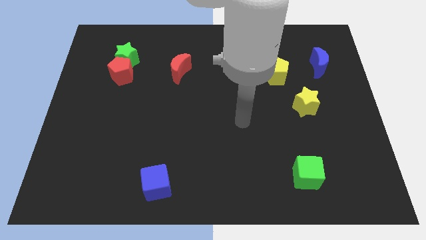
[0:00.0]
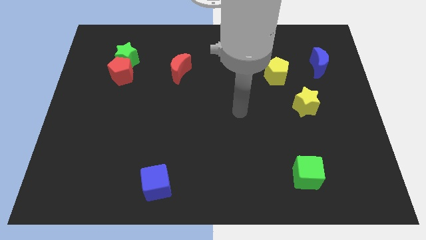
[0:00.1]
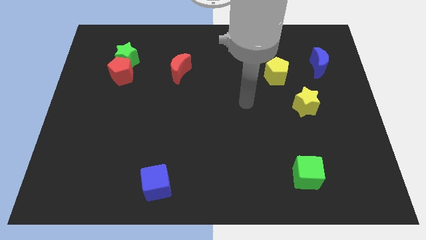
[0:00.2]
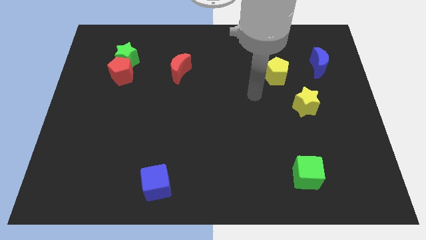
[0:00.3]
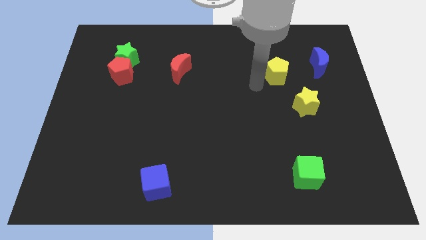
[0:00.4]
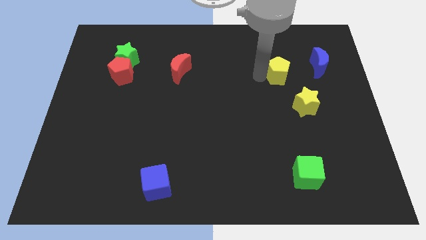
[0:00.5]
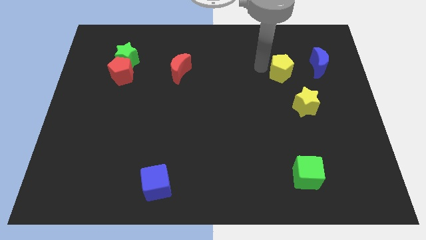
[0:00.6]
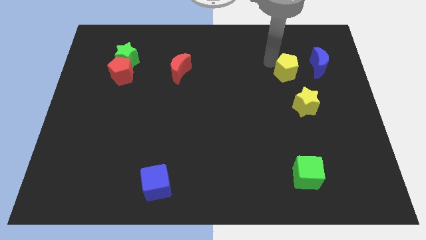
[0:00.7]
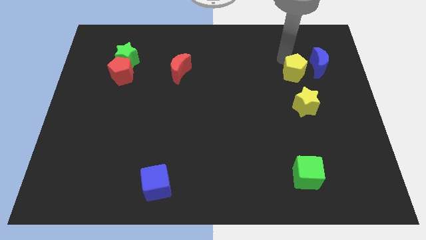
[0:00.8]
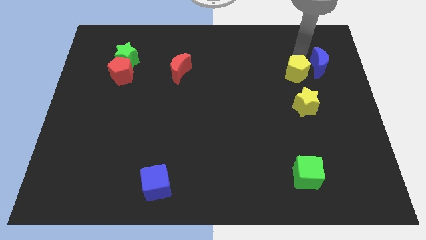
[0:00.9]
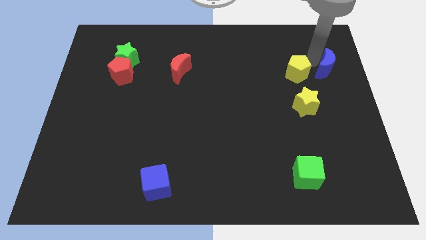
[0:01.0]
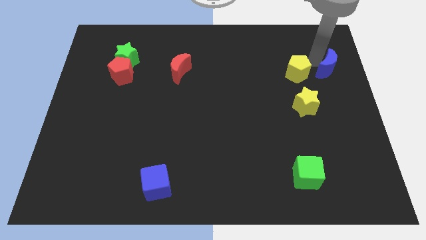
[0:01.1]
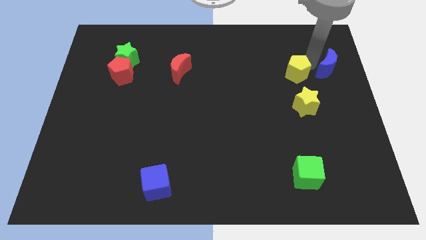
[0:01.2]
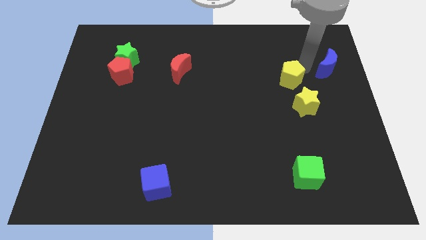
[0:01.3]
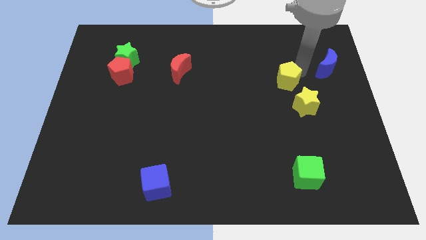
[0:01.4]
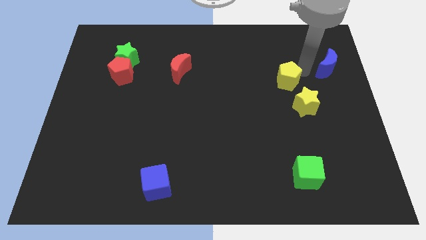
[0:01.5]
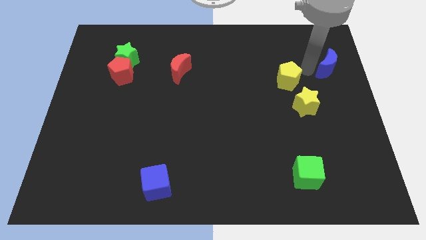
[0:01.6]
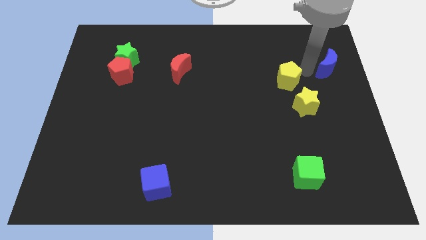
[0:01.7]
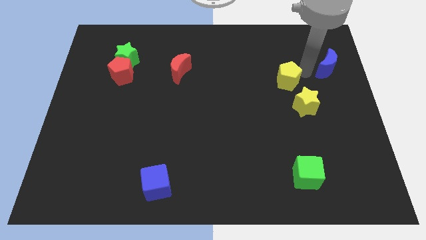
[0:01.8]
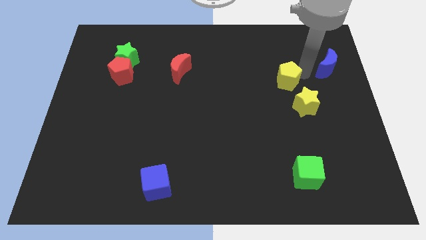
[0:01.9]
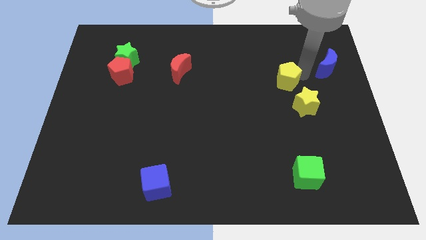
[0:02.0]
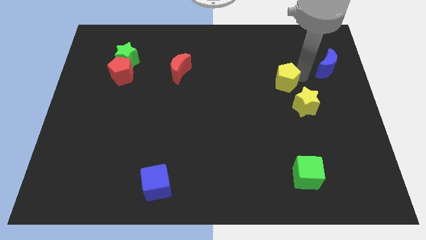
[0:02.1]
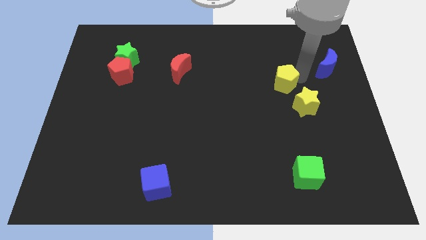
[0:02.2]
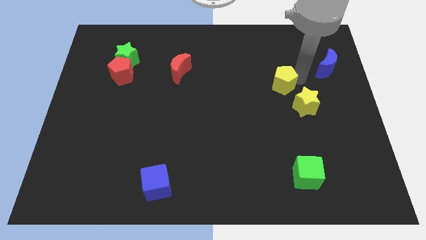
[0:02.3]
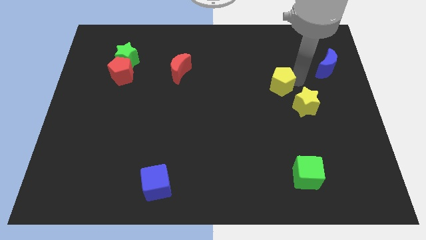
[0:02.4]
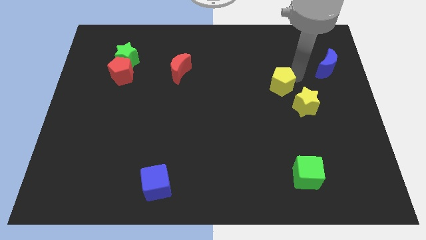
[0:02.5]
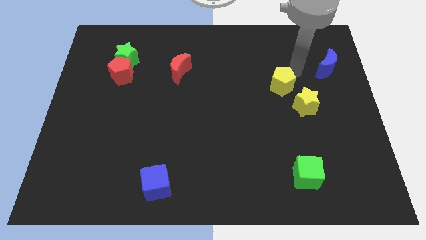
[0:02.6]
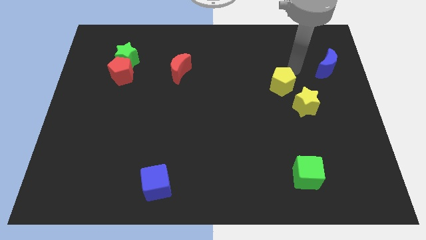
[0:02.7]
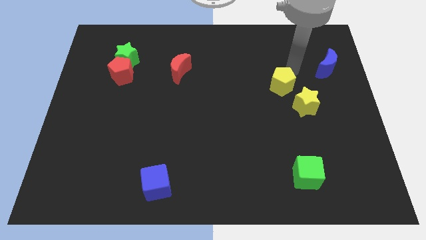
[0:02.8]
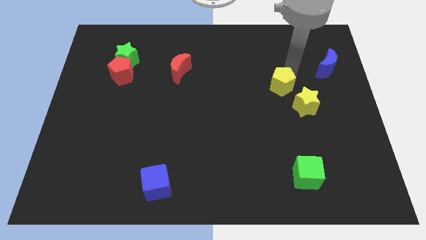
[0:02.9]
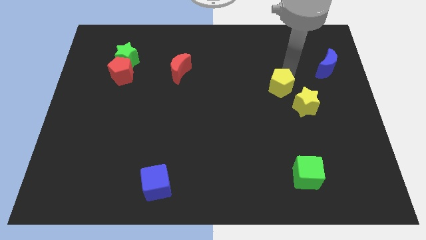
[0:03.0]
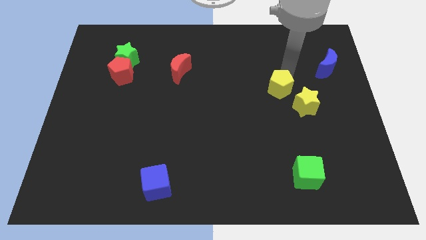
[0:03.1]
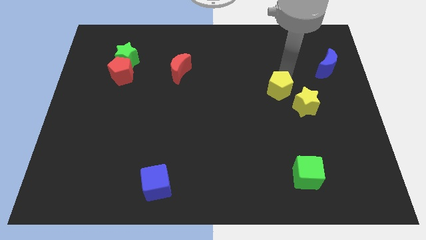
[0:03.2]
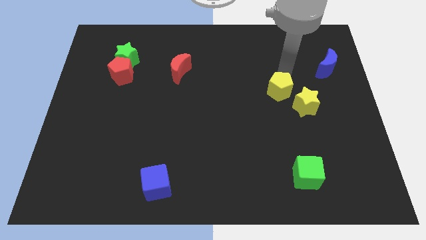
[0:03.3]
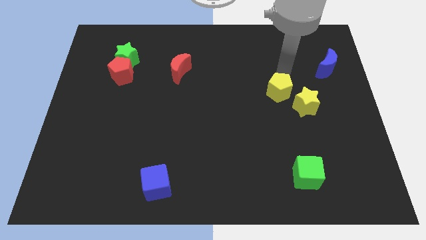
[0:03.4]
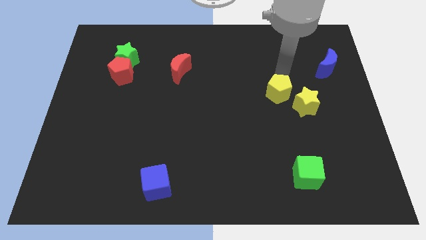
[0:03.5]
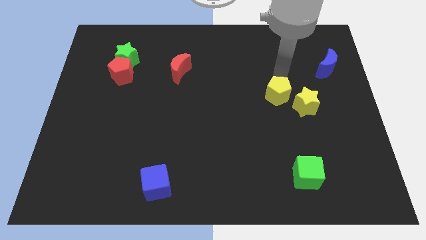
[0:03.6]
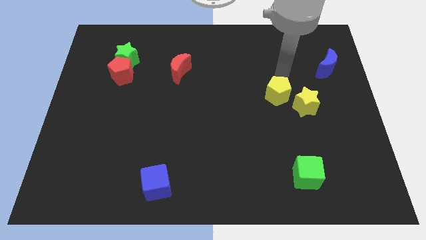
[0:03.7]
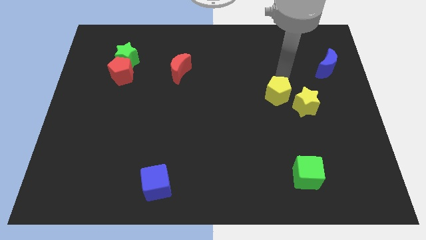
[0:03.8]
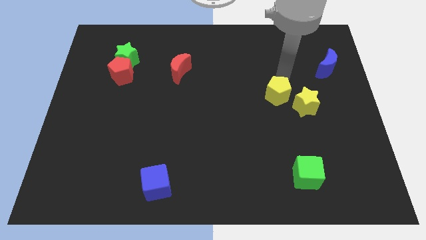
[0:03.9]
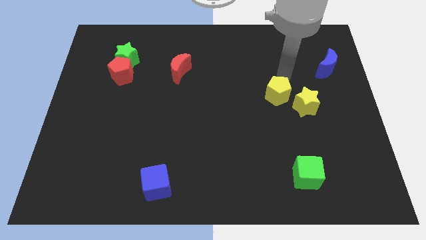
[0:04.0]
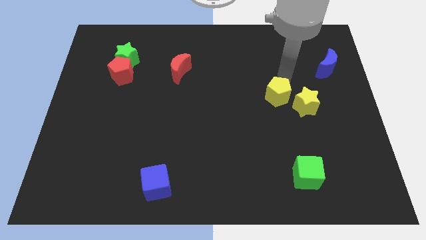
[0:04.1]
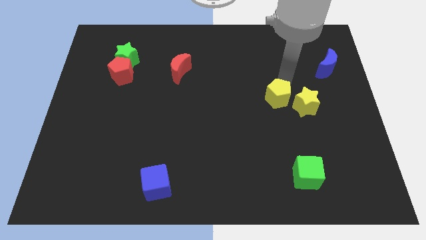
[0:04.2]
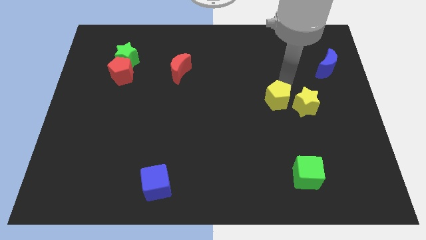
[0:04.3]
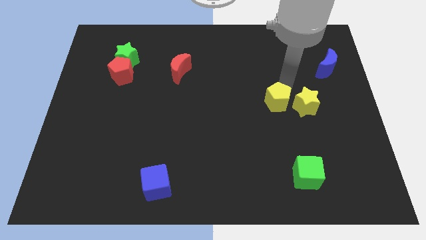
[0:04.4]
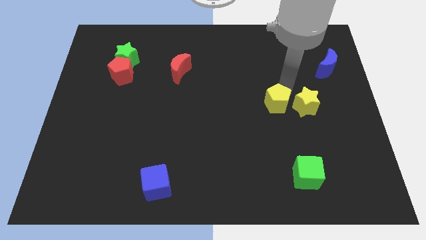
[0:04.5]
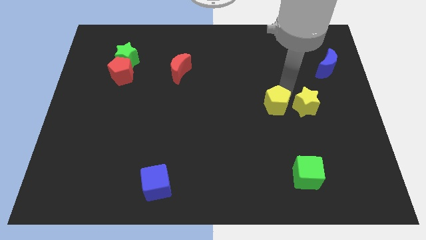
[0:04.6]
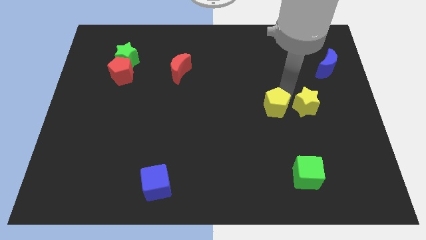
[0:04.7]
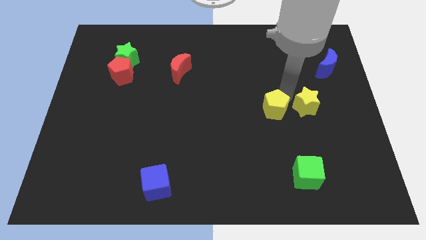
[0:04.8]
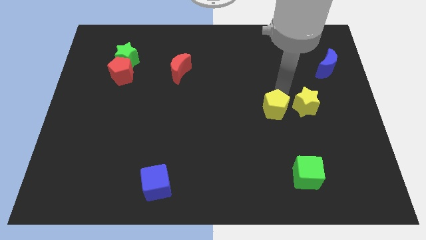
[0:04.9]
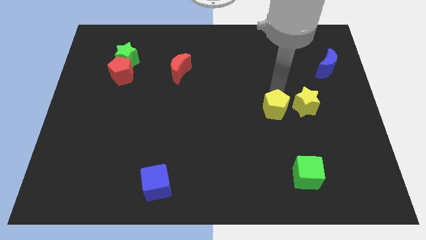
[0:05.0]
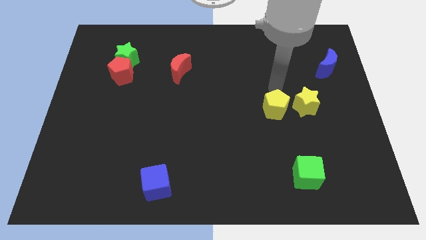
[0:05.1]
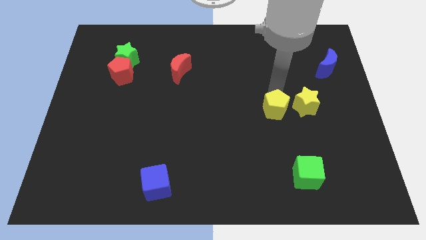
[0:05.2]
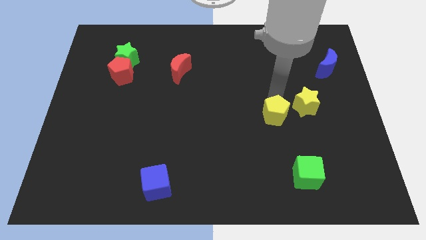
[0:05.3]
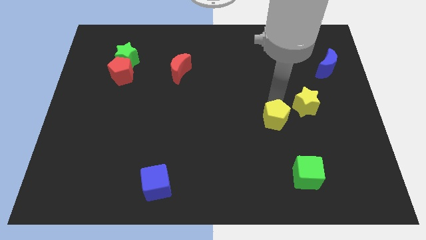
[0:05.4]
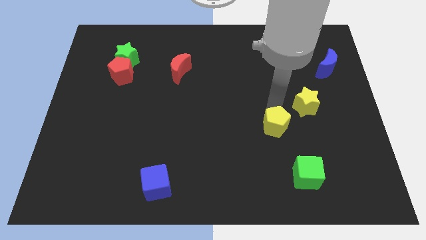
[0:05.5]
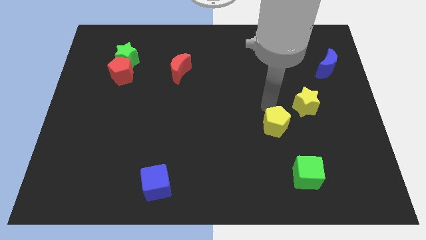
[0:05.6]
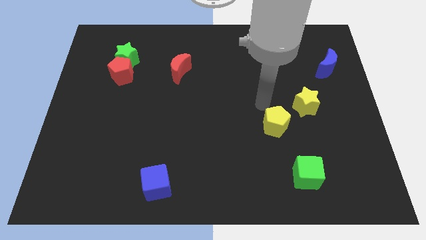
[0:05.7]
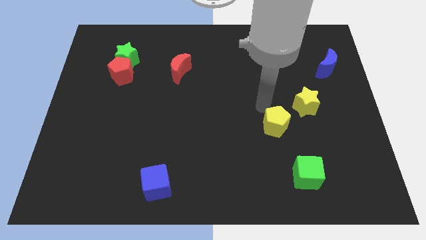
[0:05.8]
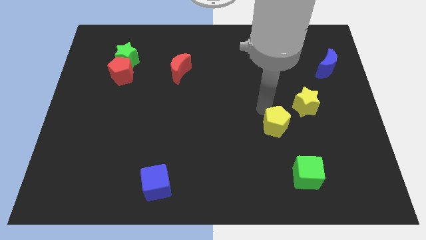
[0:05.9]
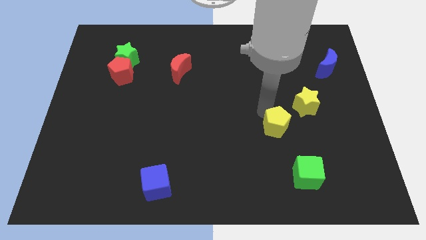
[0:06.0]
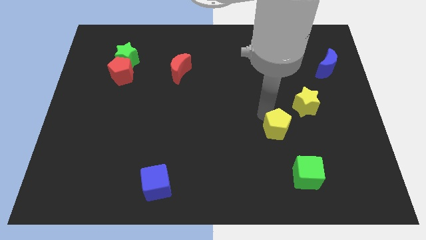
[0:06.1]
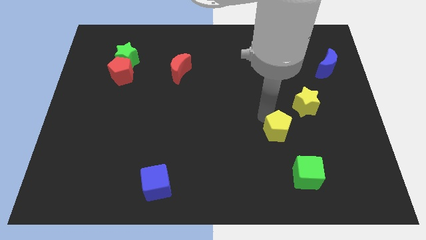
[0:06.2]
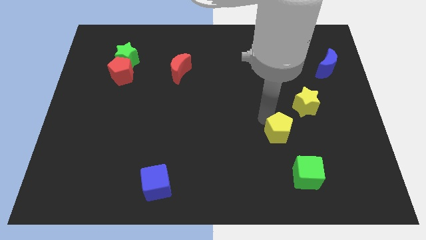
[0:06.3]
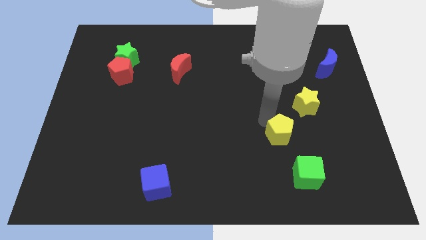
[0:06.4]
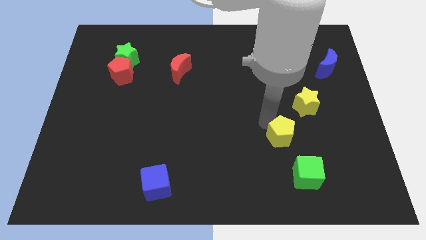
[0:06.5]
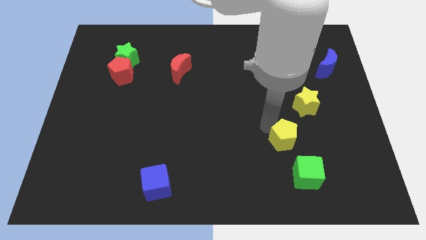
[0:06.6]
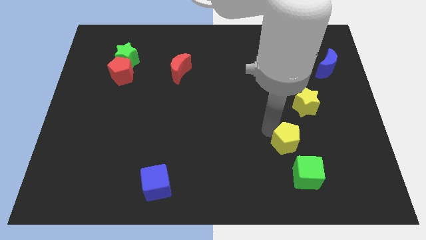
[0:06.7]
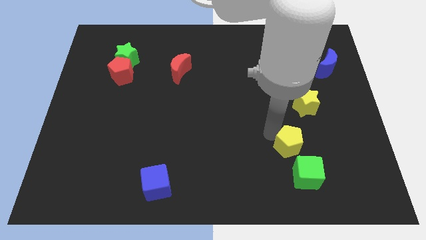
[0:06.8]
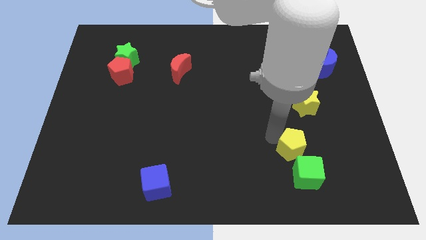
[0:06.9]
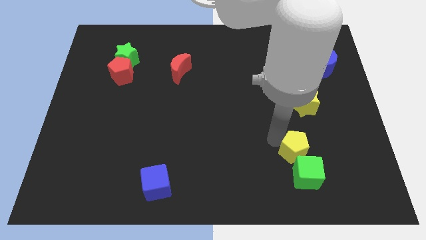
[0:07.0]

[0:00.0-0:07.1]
slide the yellow pentagon next to the green cube
